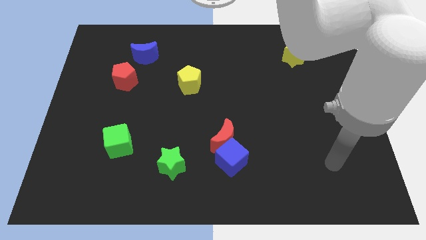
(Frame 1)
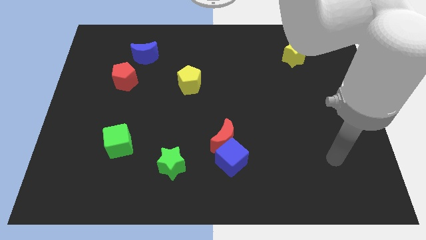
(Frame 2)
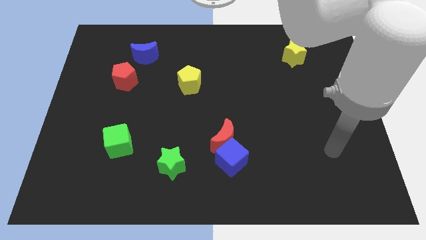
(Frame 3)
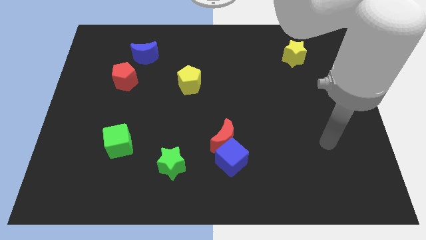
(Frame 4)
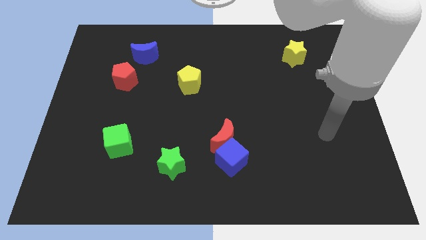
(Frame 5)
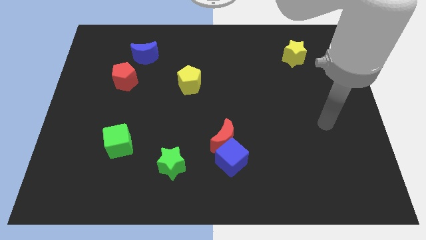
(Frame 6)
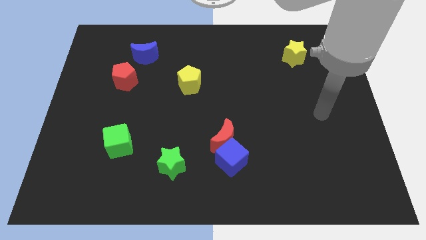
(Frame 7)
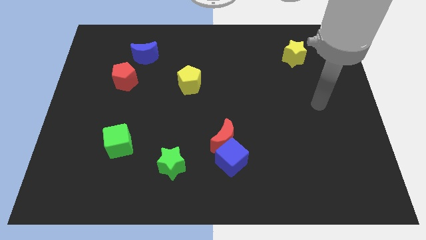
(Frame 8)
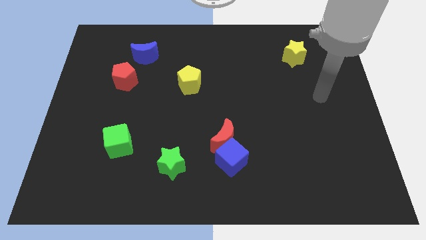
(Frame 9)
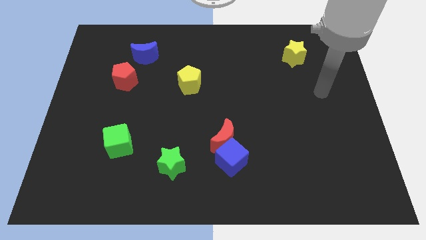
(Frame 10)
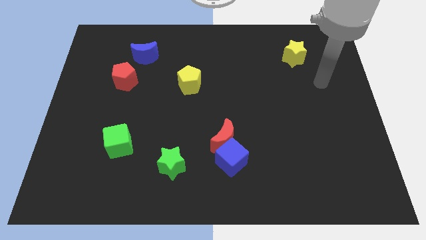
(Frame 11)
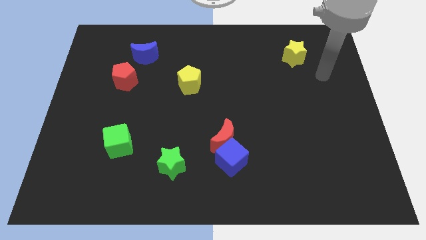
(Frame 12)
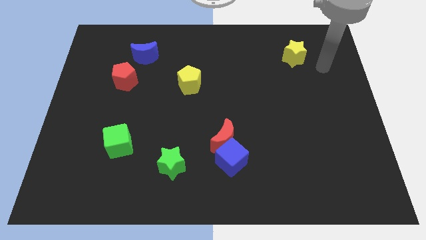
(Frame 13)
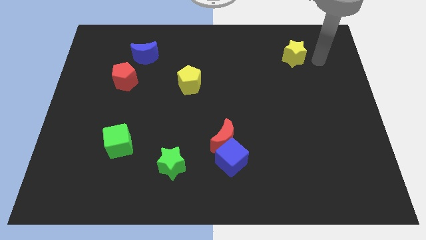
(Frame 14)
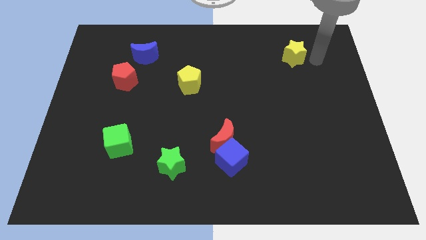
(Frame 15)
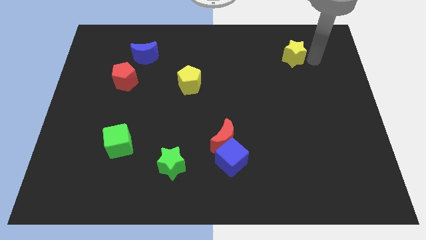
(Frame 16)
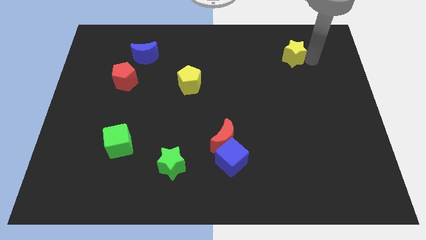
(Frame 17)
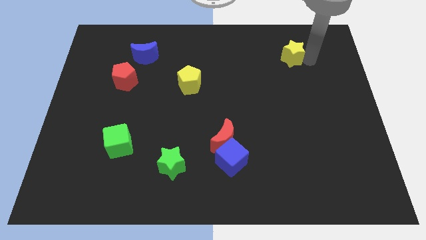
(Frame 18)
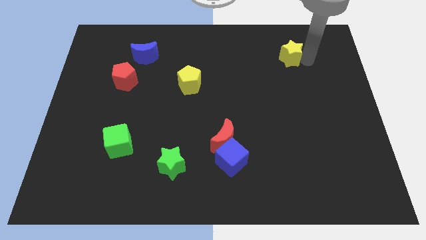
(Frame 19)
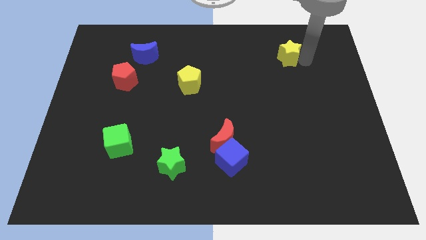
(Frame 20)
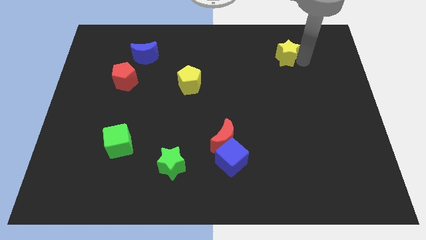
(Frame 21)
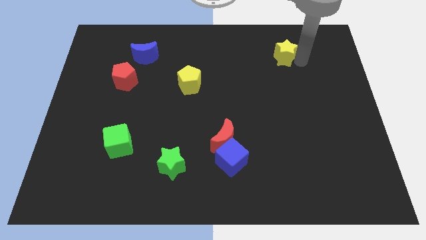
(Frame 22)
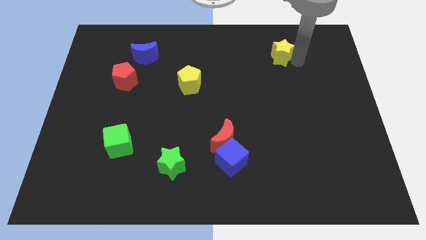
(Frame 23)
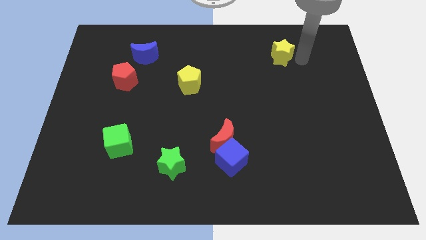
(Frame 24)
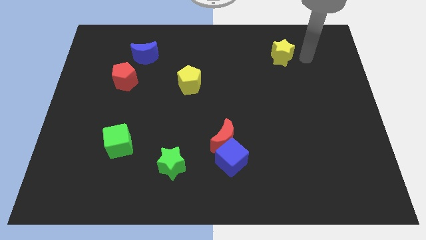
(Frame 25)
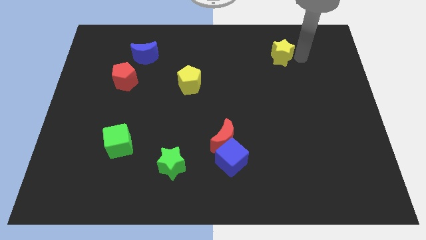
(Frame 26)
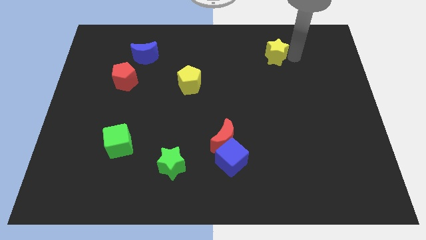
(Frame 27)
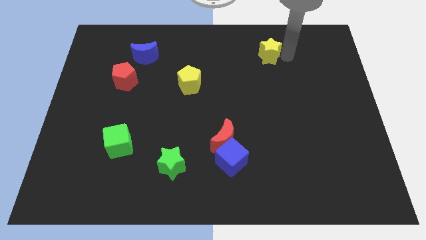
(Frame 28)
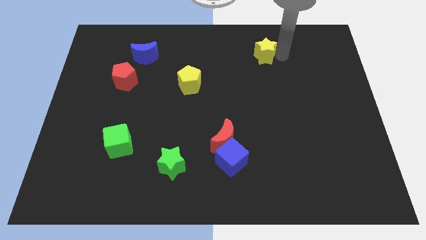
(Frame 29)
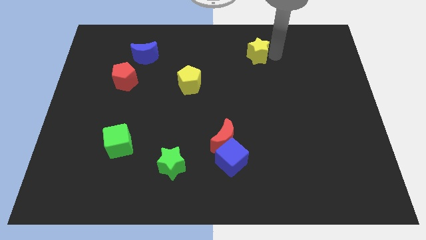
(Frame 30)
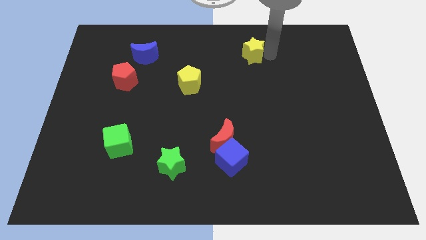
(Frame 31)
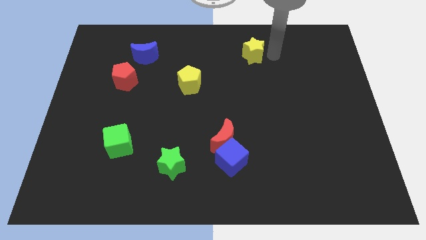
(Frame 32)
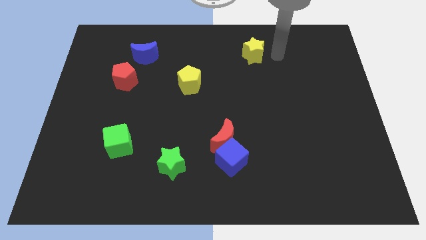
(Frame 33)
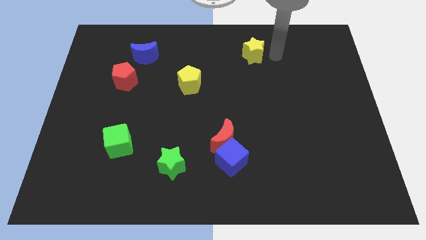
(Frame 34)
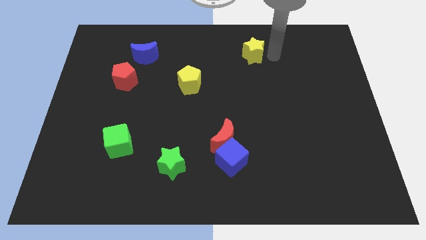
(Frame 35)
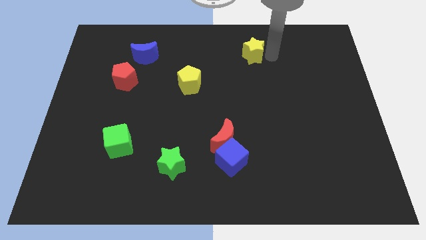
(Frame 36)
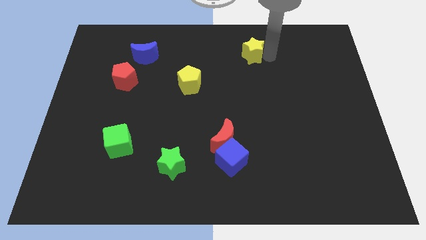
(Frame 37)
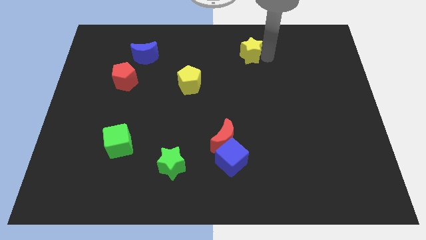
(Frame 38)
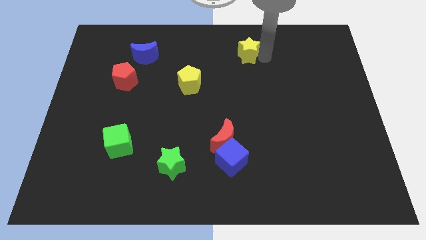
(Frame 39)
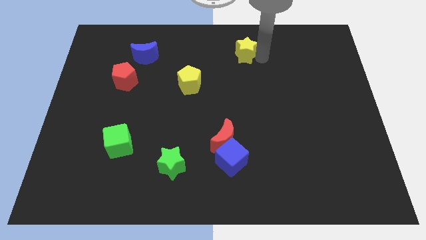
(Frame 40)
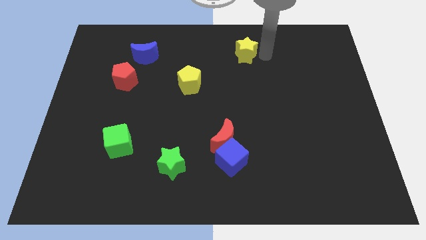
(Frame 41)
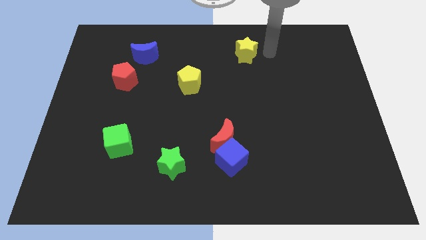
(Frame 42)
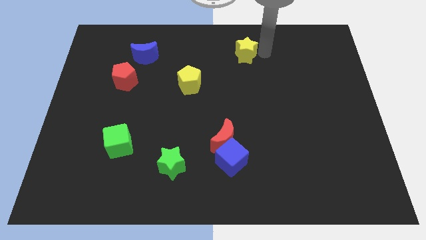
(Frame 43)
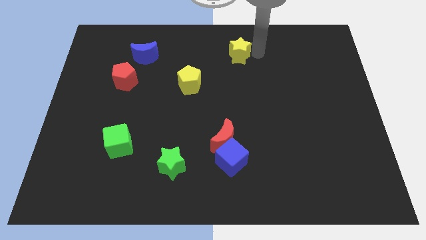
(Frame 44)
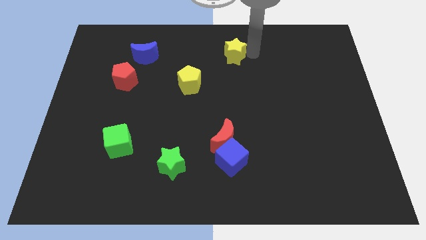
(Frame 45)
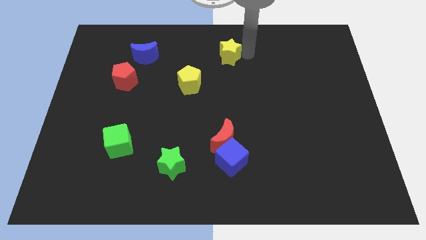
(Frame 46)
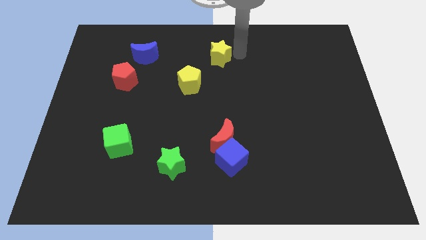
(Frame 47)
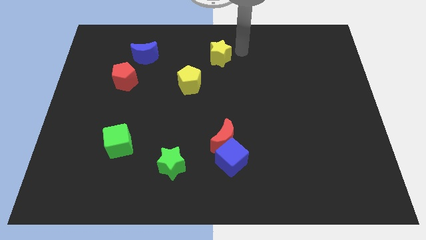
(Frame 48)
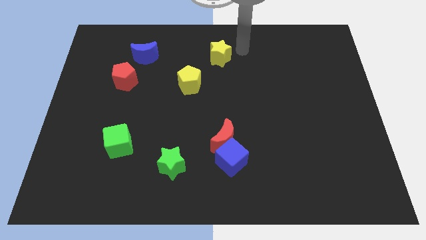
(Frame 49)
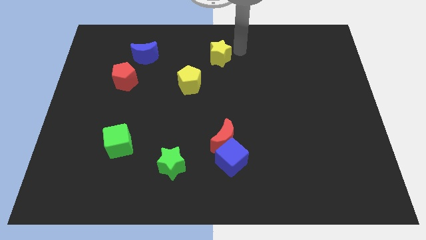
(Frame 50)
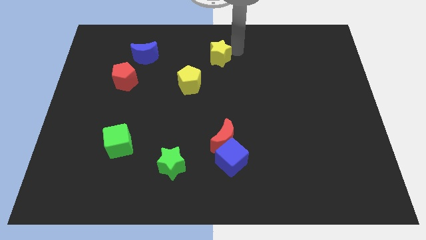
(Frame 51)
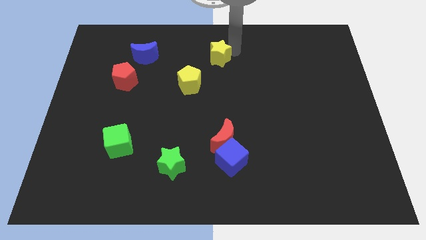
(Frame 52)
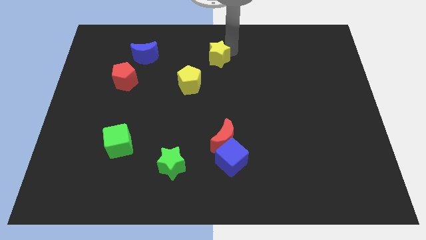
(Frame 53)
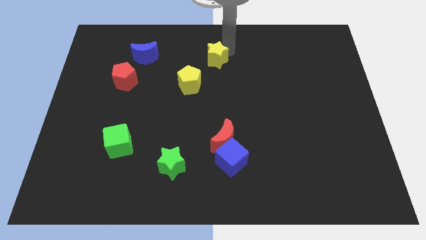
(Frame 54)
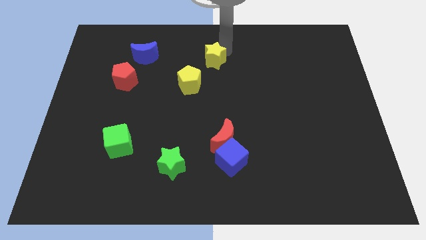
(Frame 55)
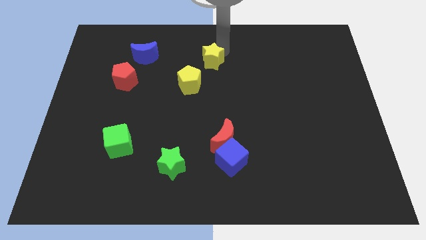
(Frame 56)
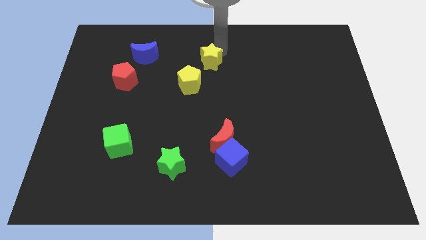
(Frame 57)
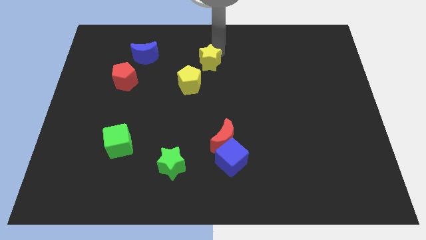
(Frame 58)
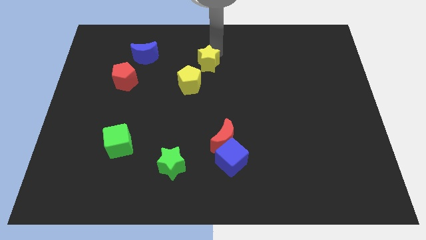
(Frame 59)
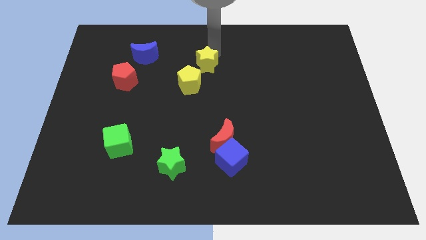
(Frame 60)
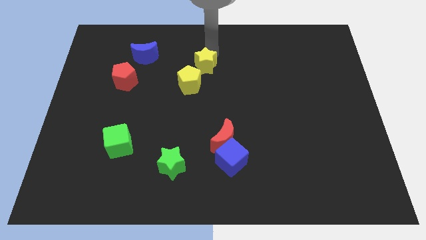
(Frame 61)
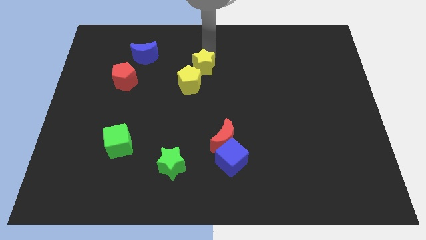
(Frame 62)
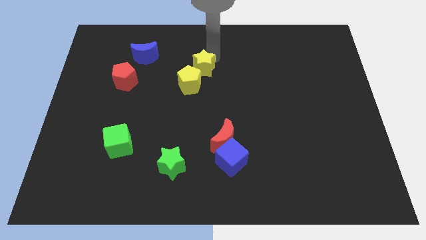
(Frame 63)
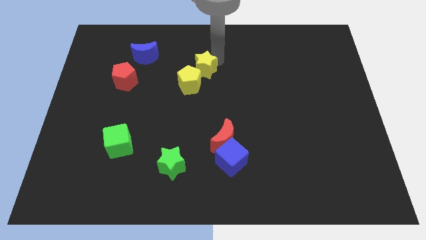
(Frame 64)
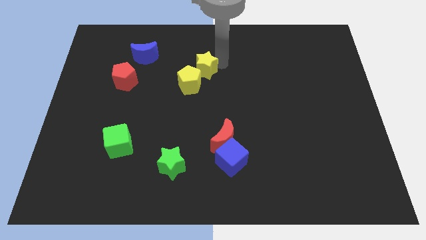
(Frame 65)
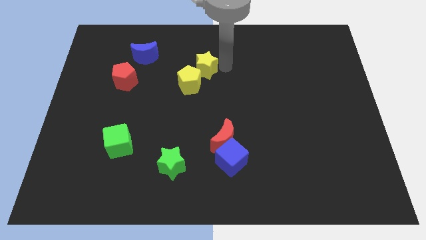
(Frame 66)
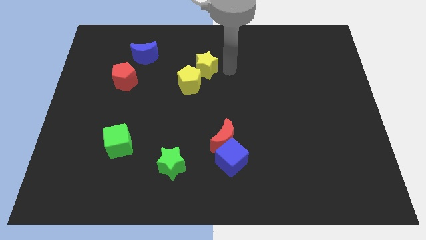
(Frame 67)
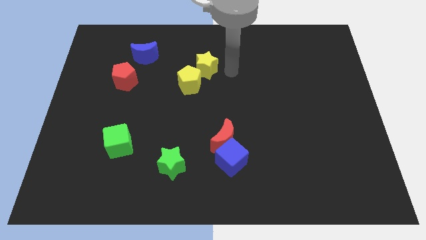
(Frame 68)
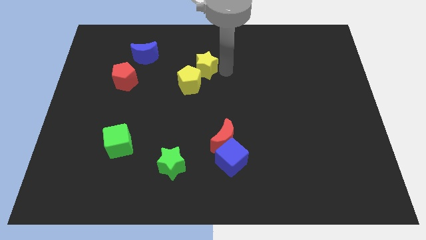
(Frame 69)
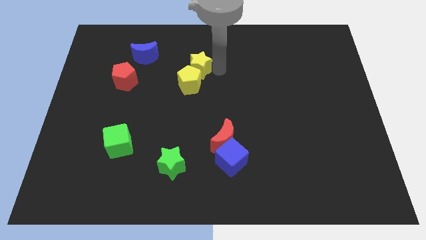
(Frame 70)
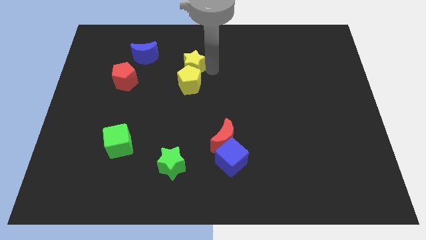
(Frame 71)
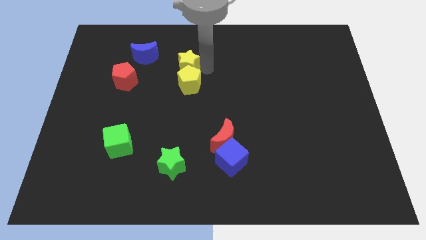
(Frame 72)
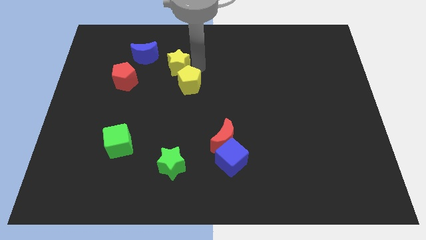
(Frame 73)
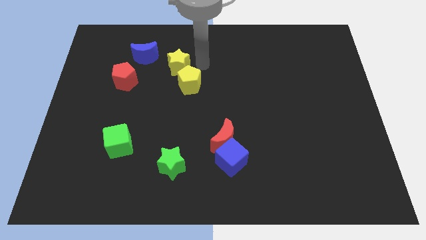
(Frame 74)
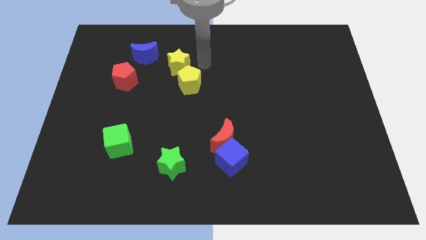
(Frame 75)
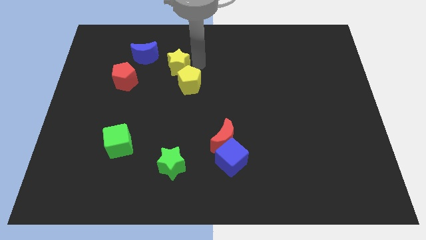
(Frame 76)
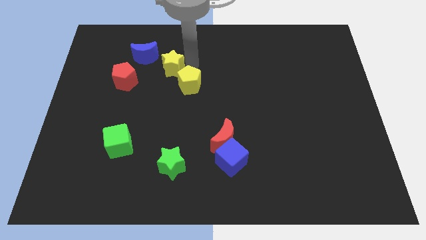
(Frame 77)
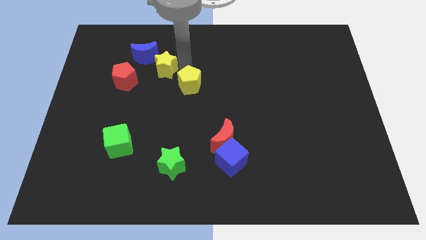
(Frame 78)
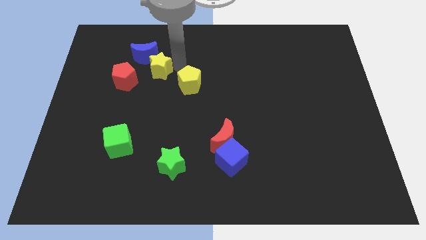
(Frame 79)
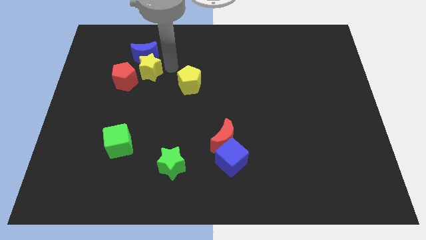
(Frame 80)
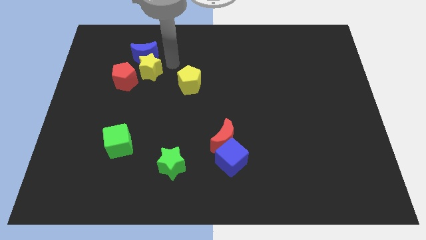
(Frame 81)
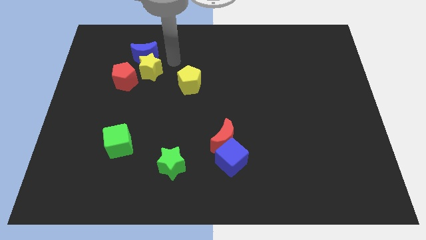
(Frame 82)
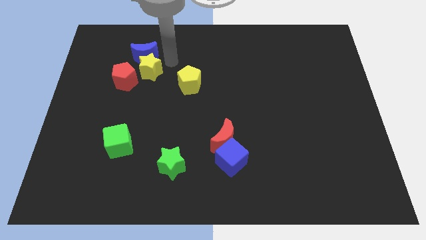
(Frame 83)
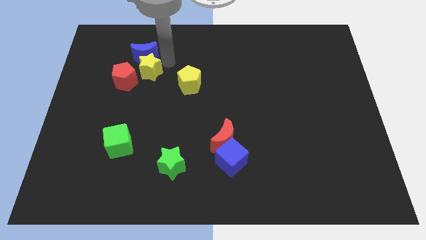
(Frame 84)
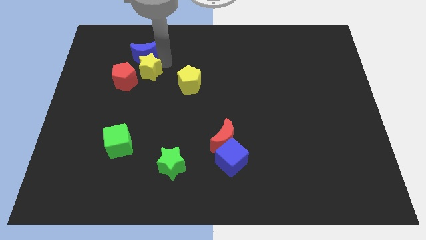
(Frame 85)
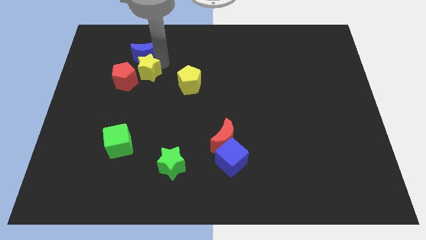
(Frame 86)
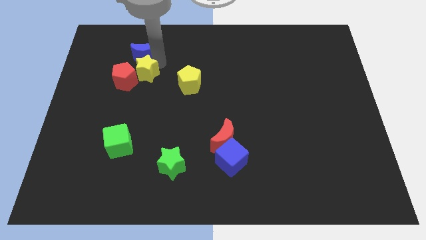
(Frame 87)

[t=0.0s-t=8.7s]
push the yellow star next to the red pentagon
